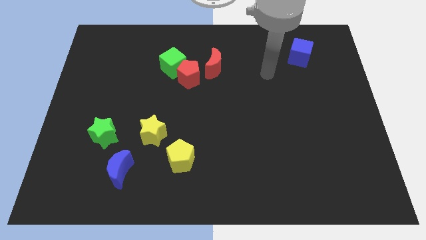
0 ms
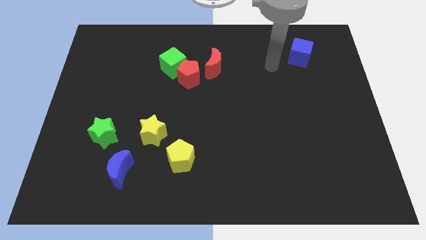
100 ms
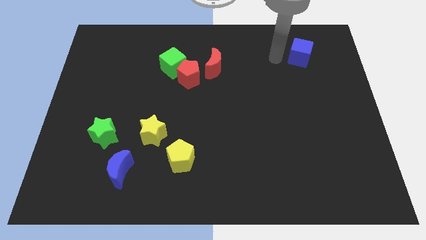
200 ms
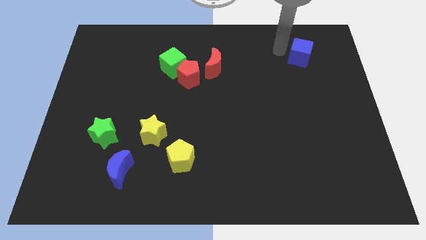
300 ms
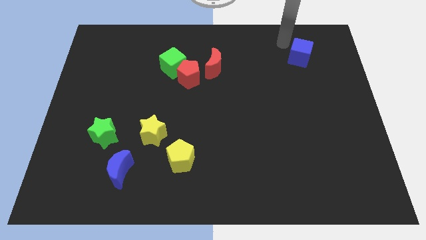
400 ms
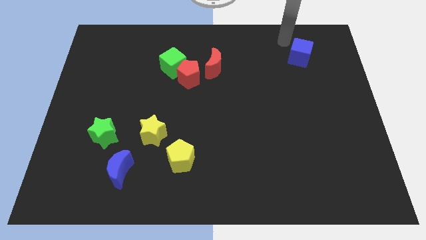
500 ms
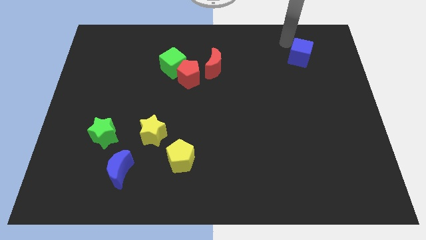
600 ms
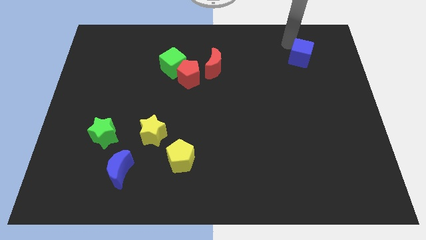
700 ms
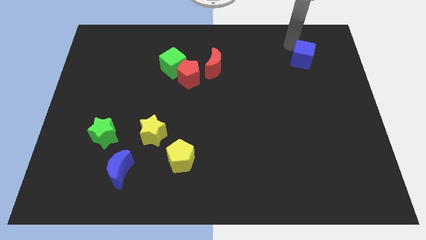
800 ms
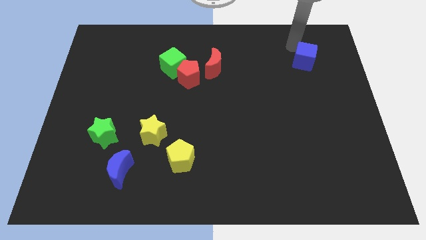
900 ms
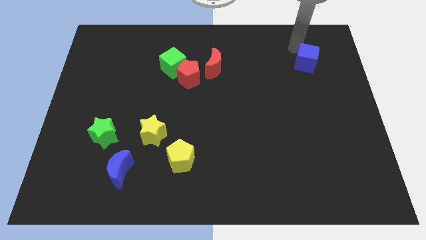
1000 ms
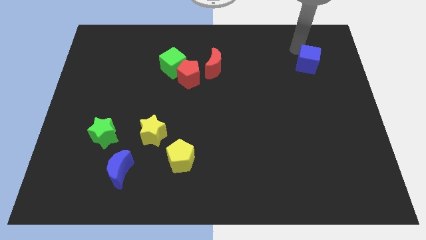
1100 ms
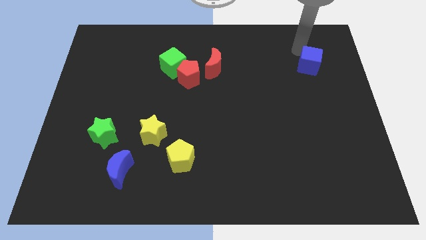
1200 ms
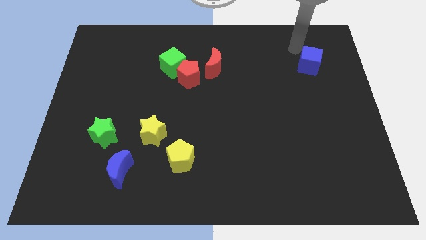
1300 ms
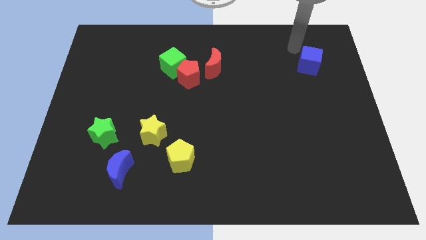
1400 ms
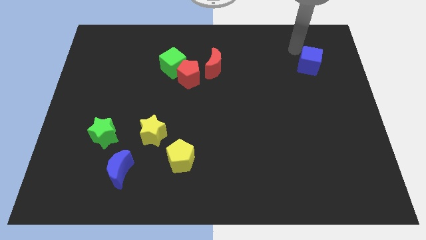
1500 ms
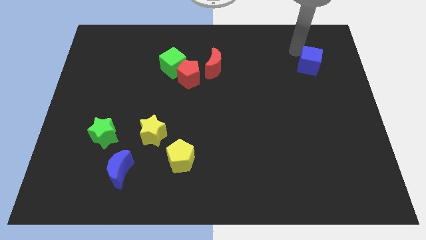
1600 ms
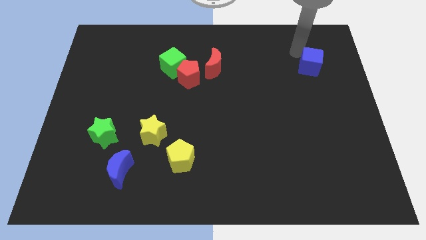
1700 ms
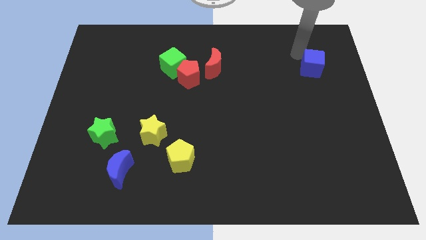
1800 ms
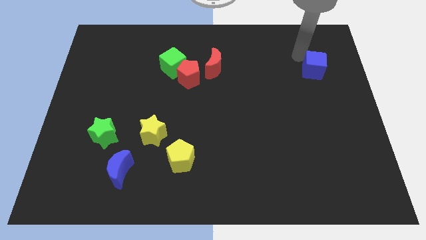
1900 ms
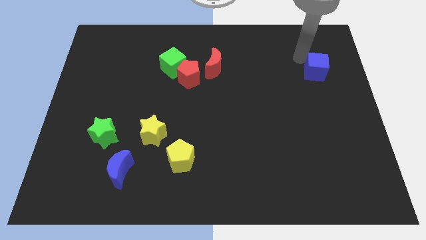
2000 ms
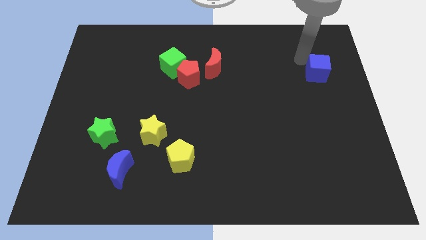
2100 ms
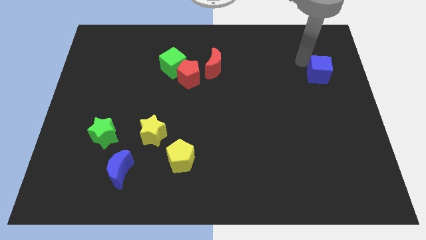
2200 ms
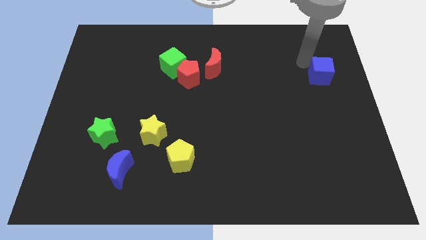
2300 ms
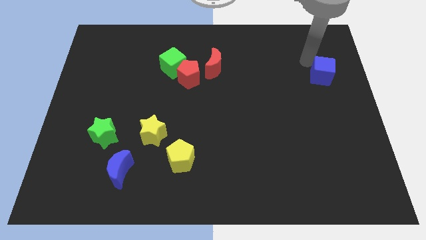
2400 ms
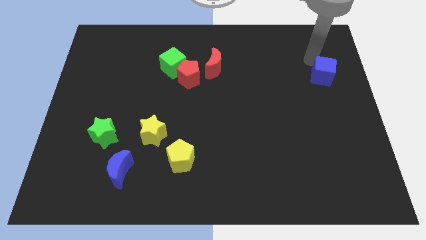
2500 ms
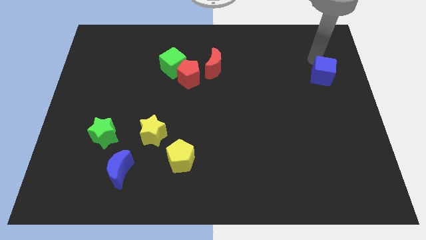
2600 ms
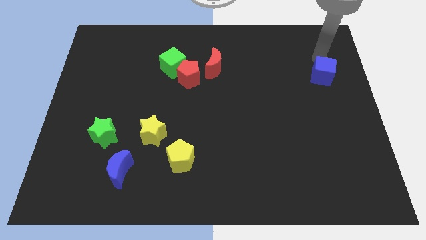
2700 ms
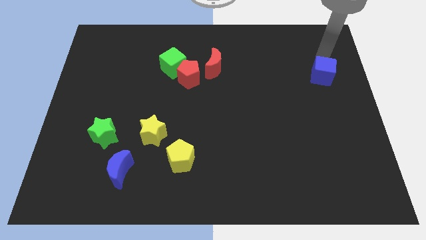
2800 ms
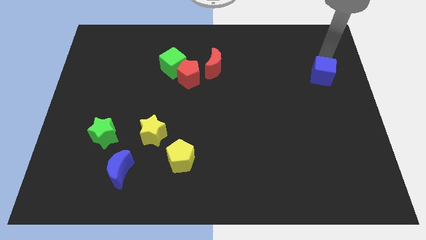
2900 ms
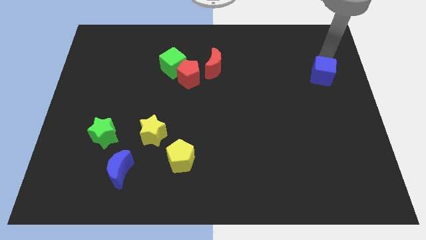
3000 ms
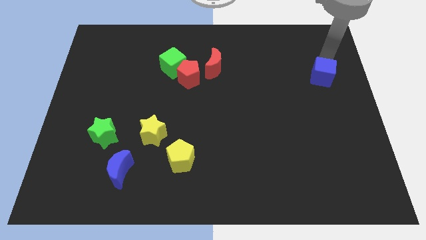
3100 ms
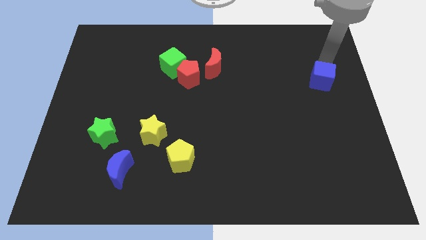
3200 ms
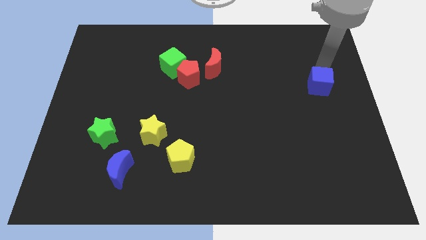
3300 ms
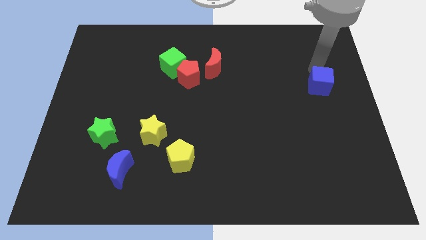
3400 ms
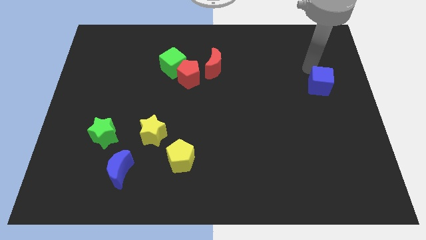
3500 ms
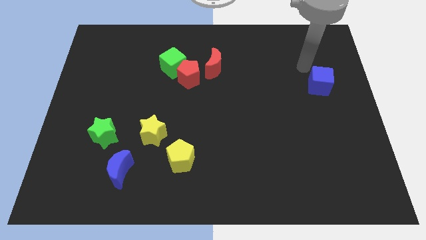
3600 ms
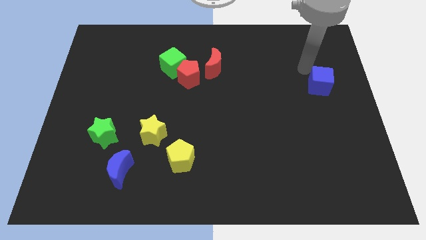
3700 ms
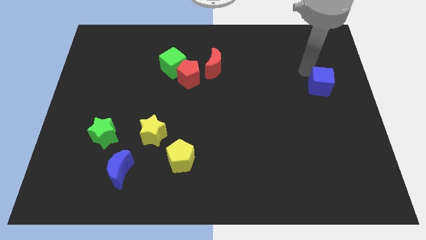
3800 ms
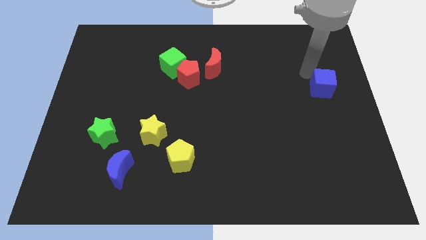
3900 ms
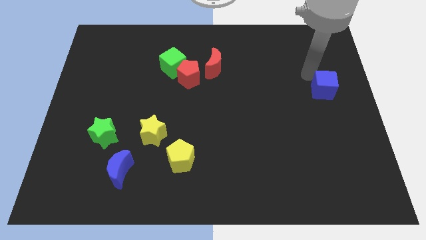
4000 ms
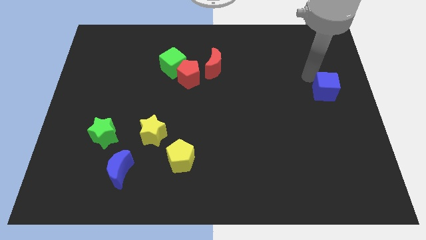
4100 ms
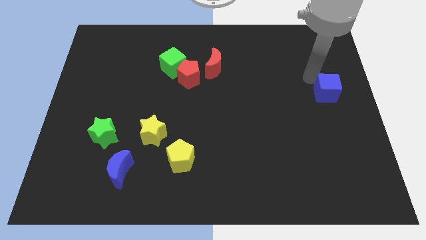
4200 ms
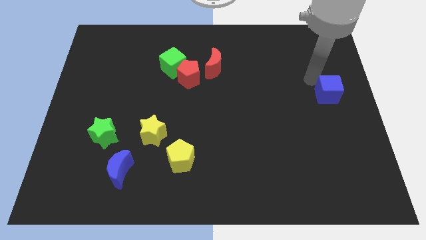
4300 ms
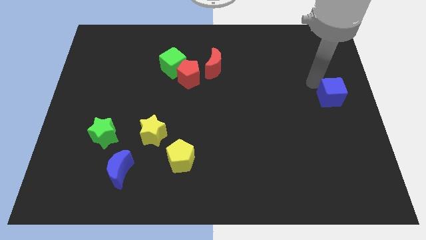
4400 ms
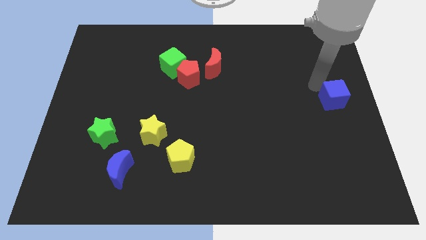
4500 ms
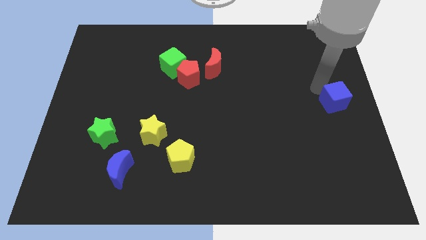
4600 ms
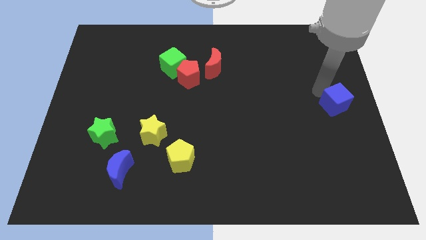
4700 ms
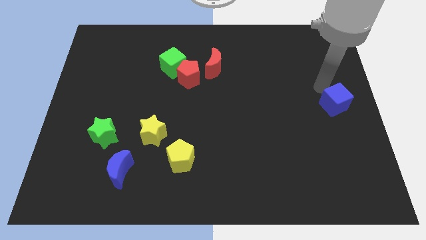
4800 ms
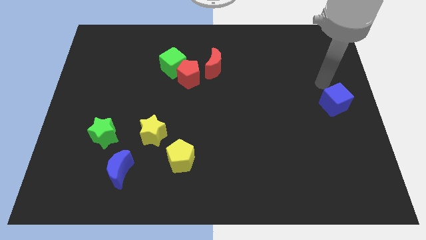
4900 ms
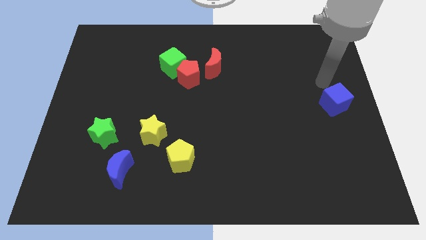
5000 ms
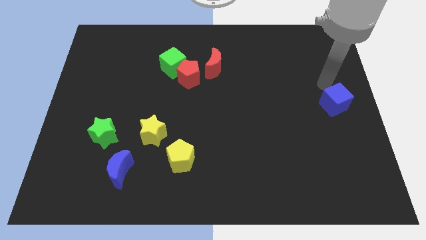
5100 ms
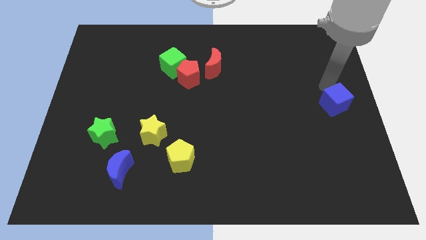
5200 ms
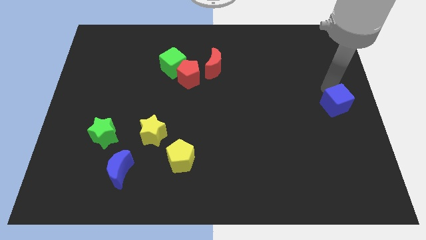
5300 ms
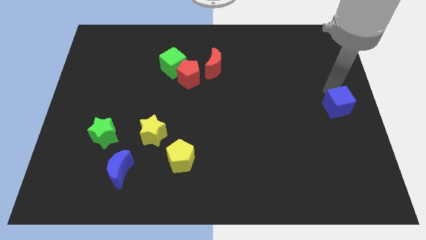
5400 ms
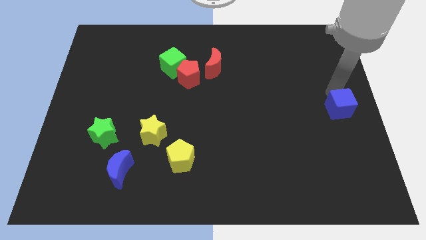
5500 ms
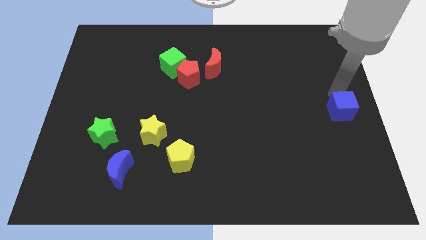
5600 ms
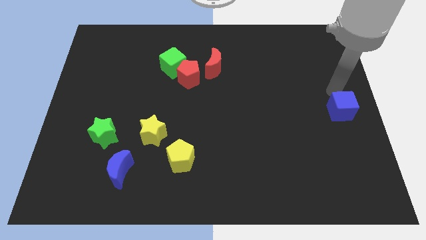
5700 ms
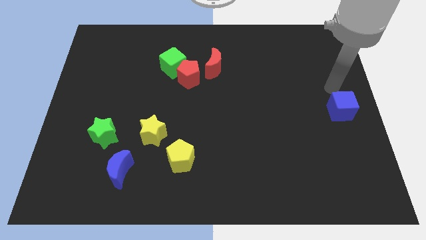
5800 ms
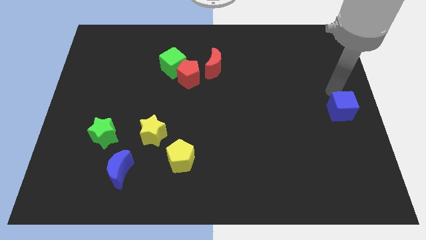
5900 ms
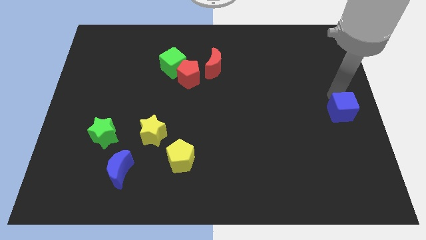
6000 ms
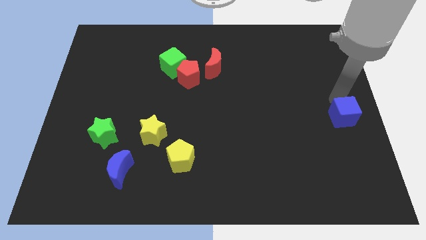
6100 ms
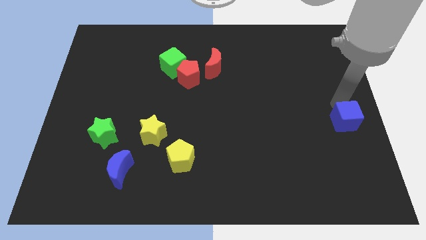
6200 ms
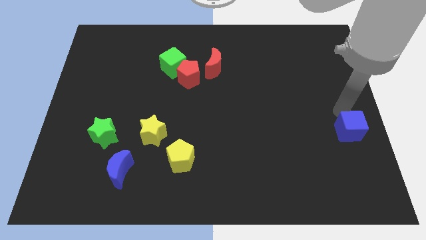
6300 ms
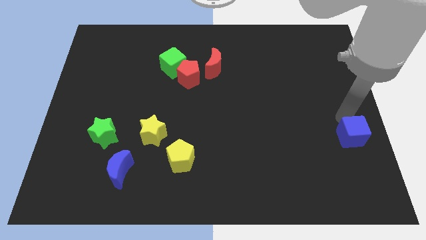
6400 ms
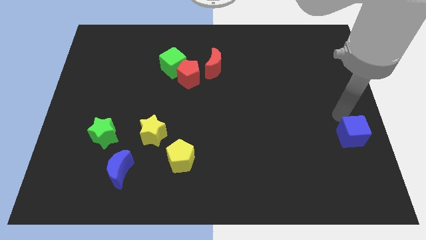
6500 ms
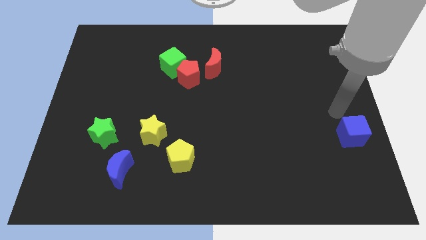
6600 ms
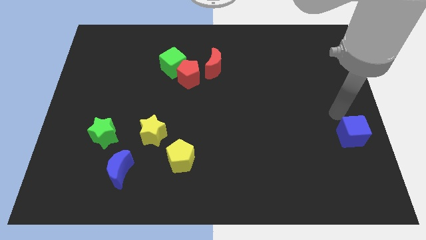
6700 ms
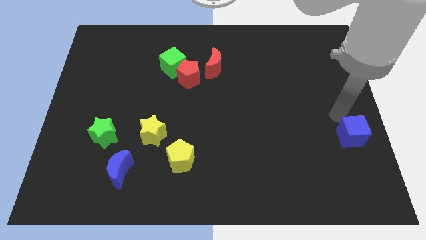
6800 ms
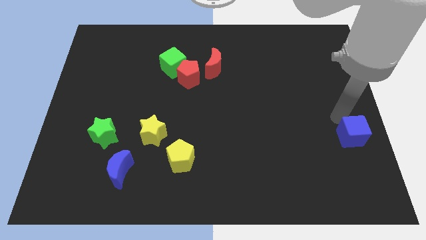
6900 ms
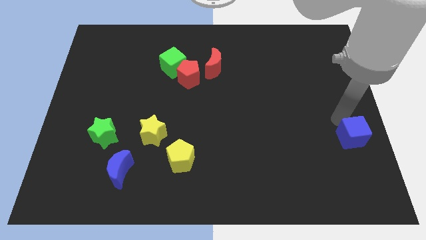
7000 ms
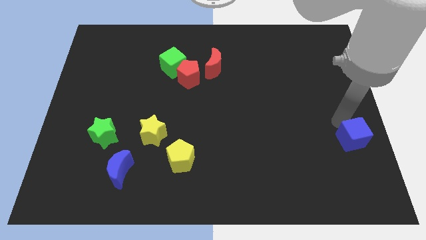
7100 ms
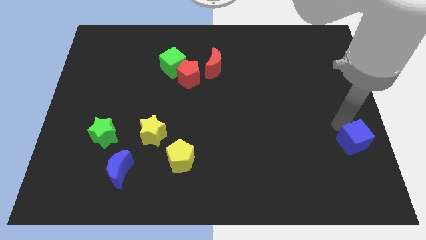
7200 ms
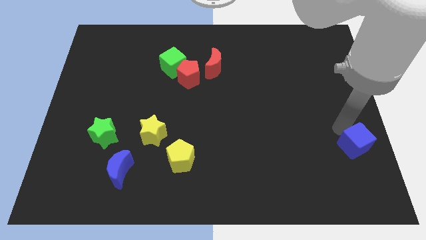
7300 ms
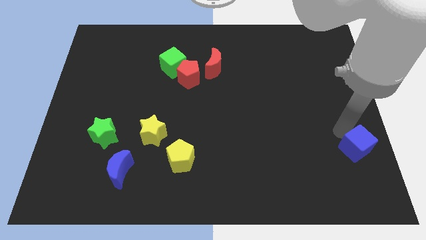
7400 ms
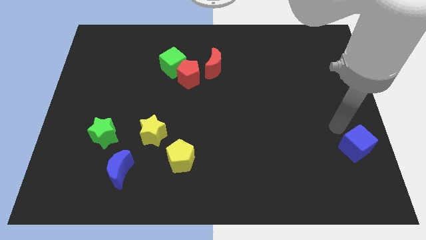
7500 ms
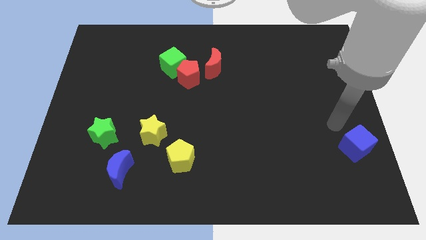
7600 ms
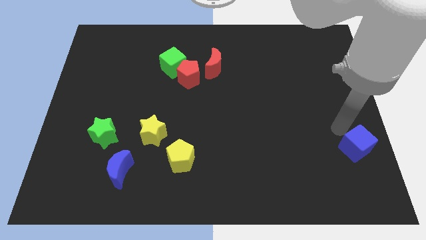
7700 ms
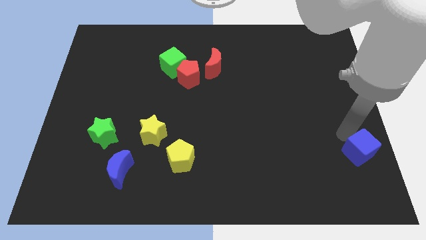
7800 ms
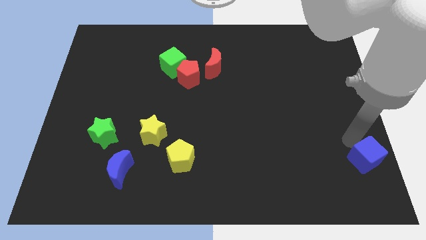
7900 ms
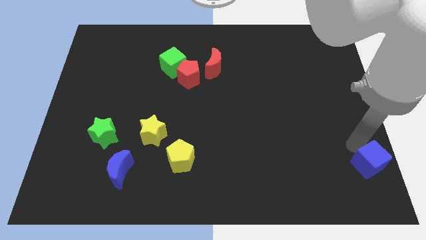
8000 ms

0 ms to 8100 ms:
move the blue cube to the bottom right corner
